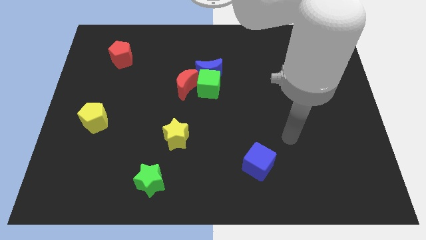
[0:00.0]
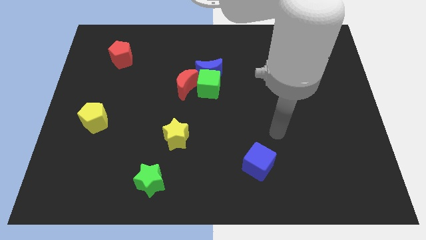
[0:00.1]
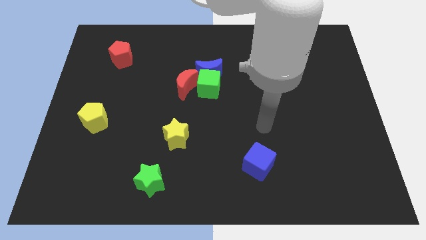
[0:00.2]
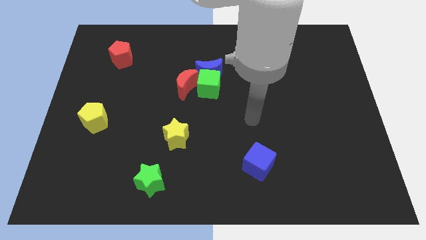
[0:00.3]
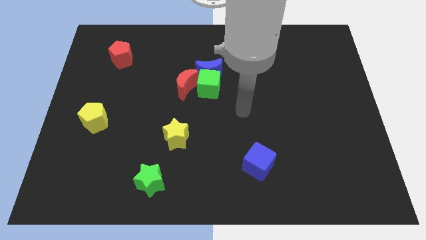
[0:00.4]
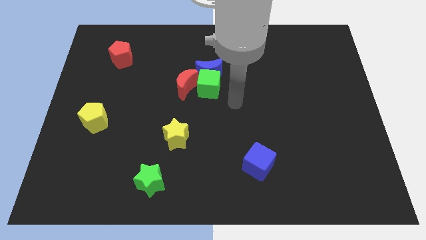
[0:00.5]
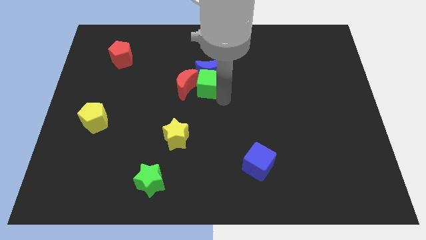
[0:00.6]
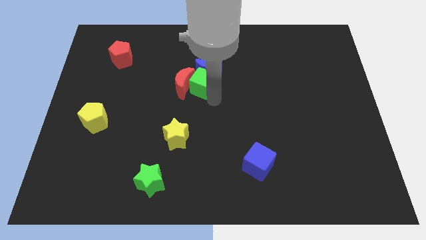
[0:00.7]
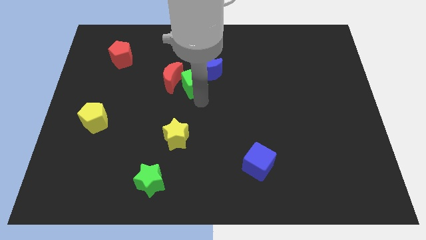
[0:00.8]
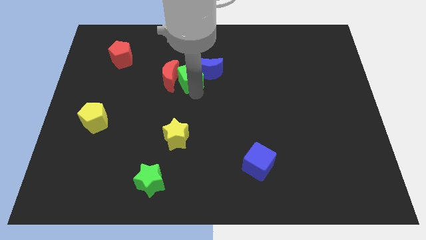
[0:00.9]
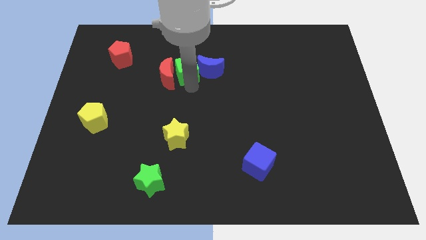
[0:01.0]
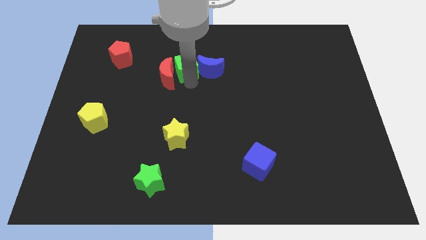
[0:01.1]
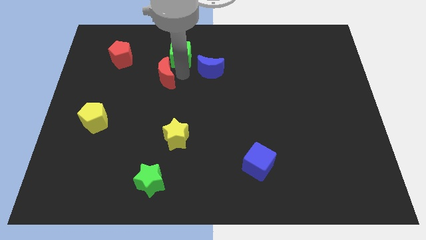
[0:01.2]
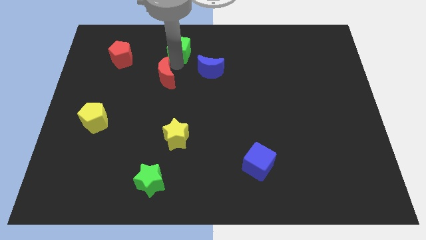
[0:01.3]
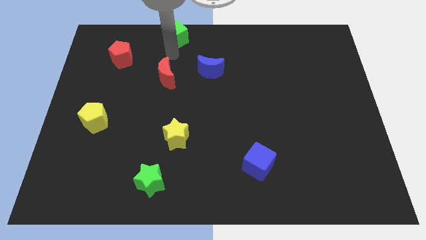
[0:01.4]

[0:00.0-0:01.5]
move the green cube away from the blue moon and red moon

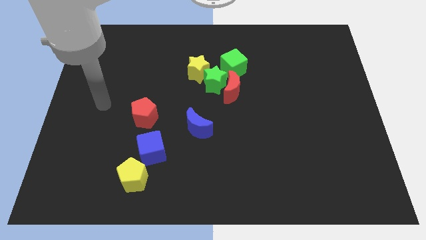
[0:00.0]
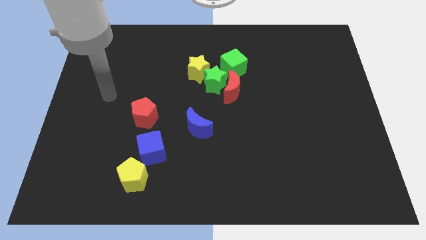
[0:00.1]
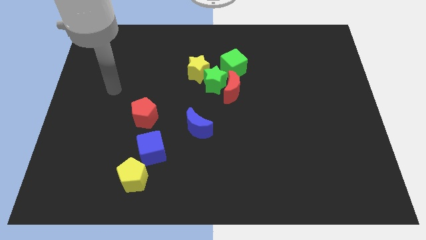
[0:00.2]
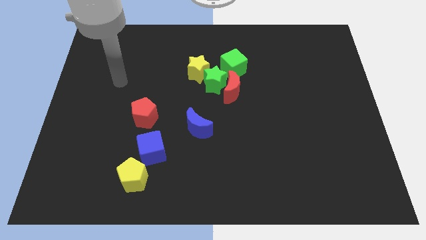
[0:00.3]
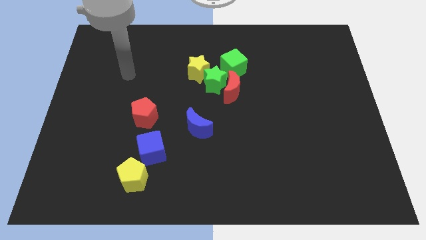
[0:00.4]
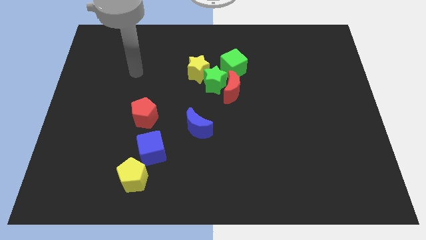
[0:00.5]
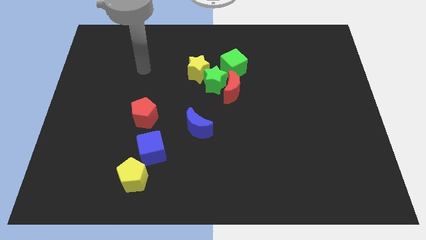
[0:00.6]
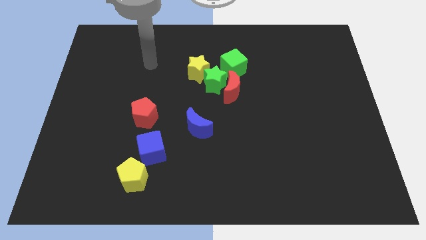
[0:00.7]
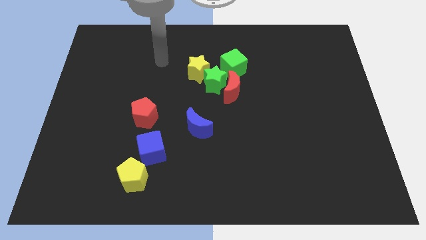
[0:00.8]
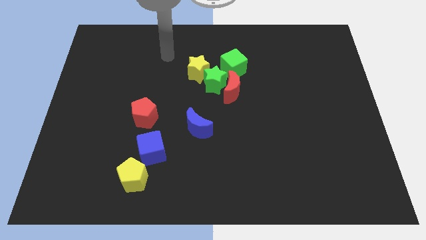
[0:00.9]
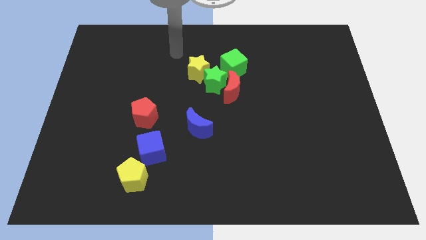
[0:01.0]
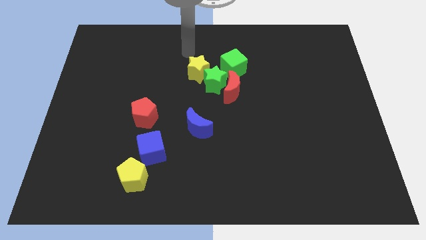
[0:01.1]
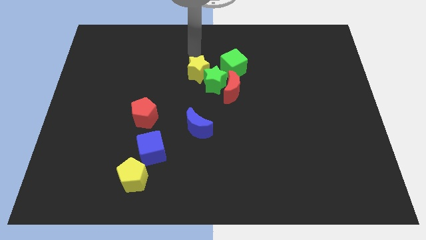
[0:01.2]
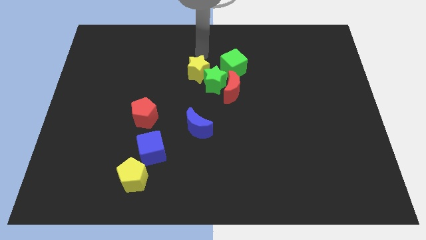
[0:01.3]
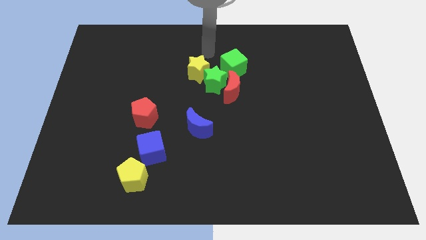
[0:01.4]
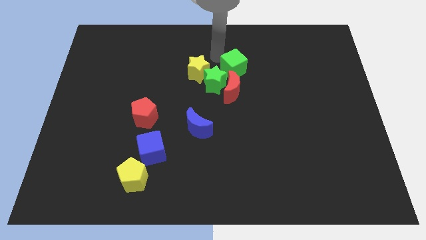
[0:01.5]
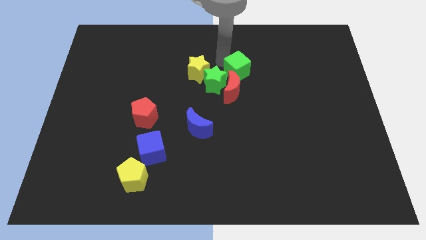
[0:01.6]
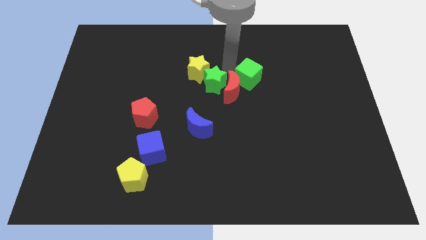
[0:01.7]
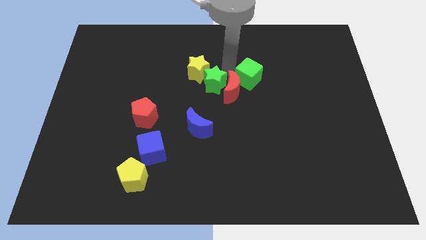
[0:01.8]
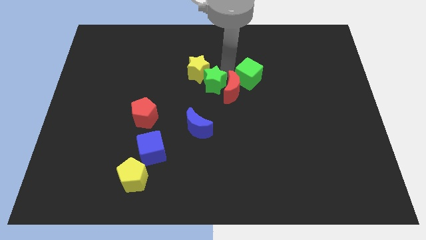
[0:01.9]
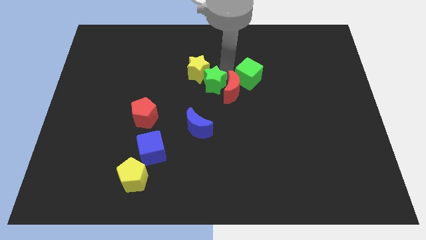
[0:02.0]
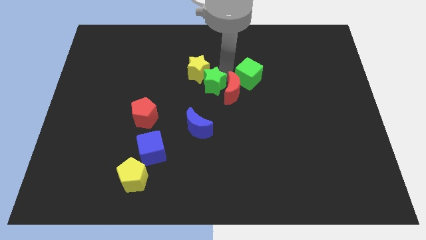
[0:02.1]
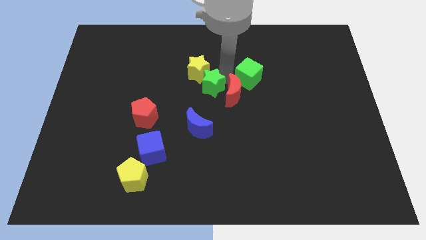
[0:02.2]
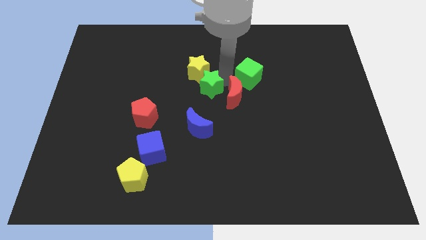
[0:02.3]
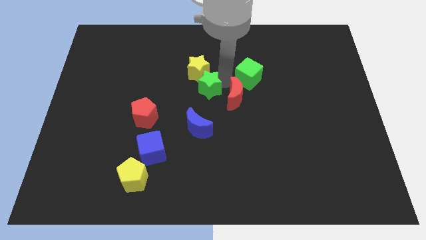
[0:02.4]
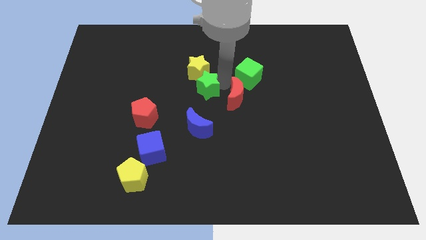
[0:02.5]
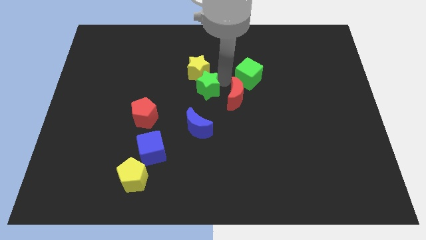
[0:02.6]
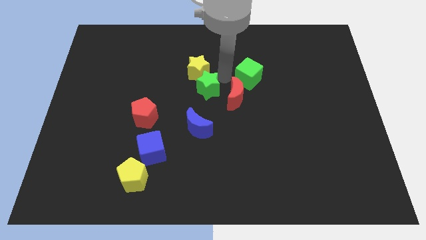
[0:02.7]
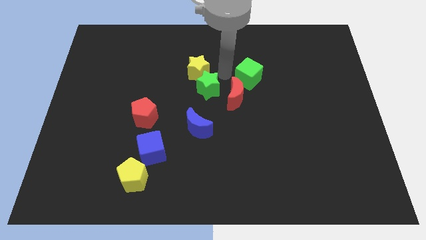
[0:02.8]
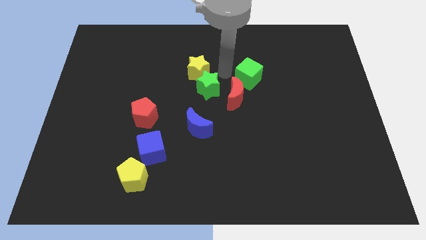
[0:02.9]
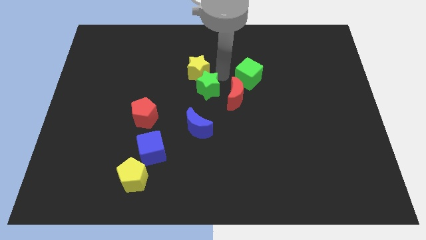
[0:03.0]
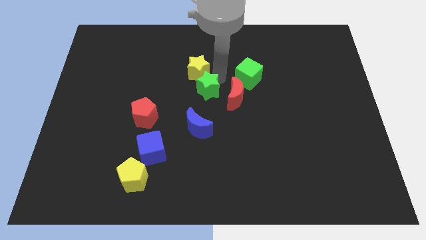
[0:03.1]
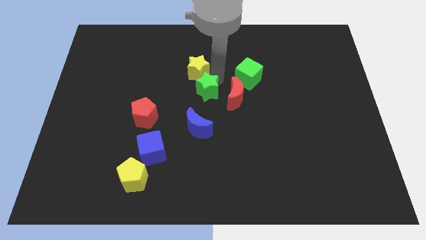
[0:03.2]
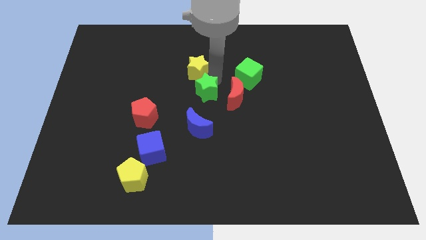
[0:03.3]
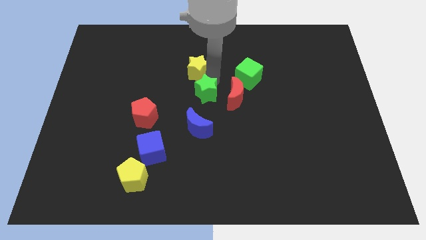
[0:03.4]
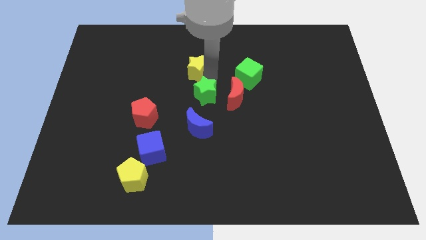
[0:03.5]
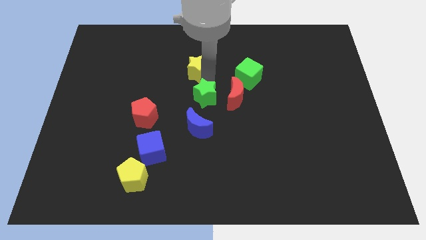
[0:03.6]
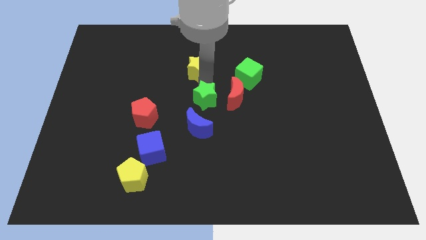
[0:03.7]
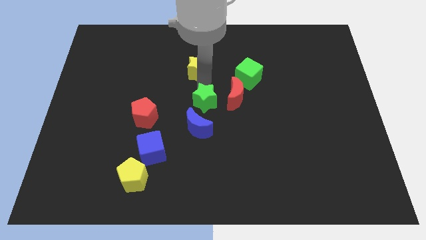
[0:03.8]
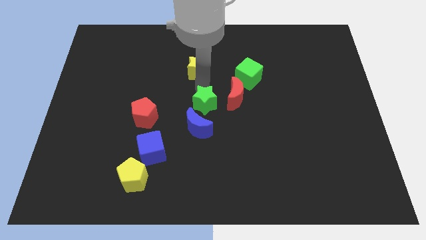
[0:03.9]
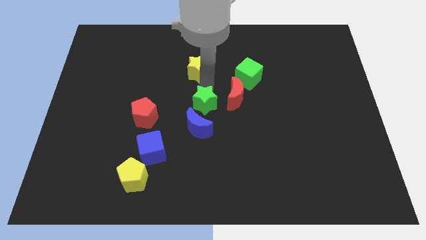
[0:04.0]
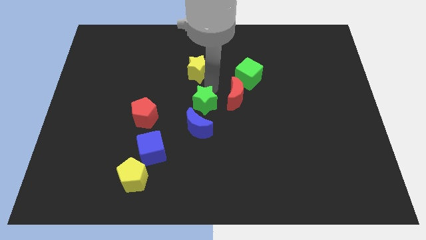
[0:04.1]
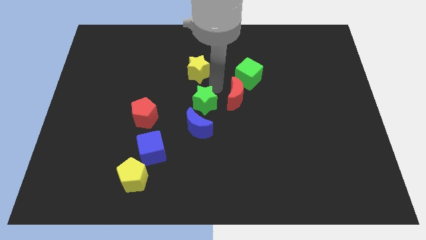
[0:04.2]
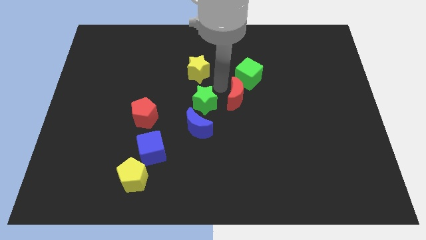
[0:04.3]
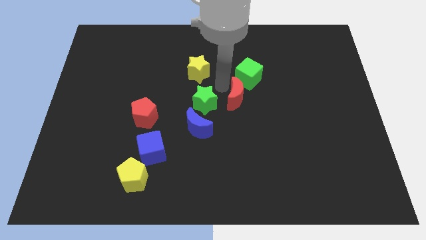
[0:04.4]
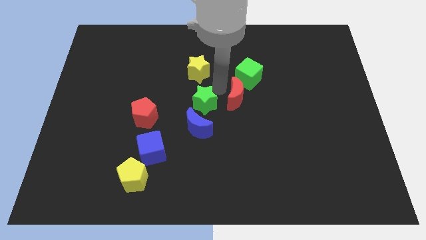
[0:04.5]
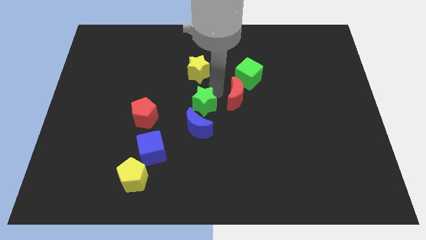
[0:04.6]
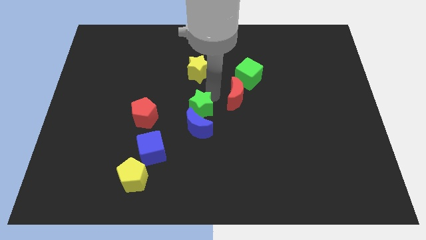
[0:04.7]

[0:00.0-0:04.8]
pull the green star apart from the group of blocks

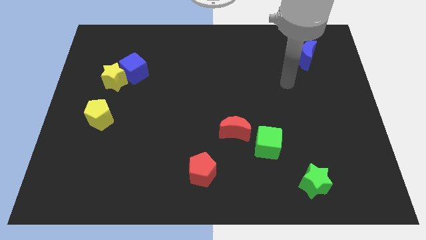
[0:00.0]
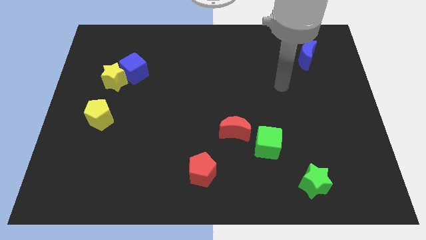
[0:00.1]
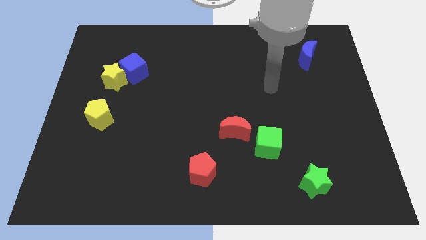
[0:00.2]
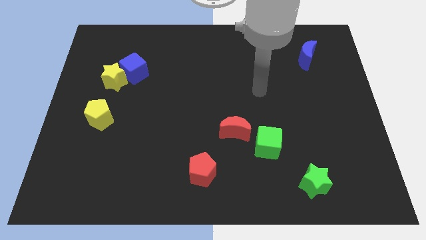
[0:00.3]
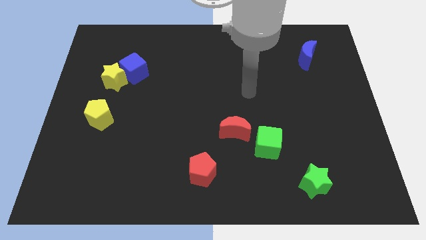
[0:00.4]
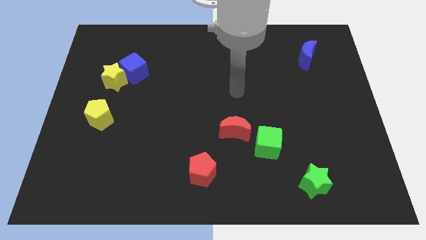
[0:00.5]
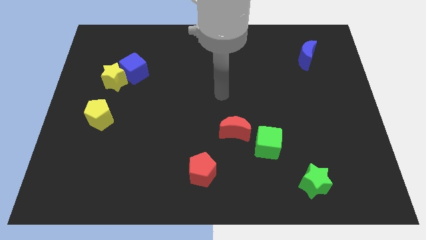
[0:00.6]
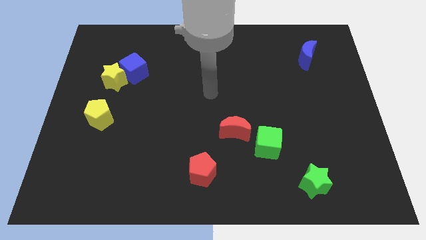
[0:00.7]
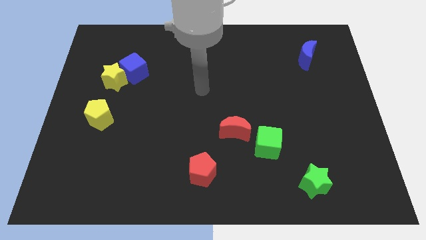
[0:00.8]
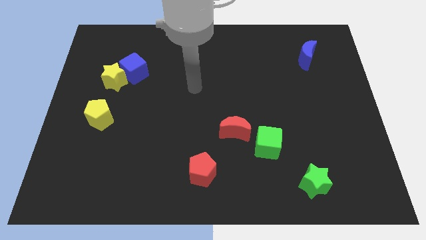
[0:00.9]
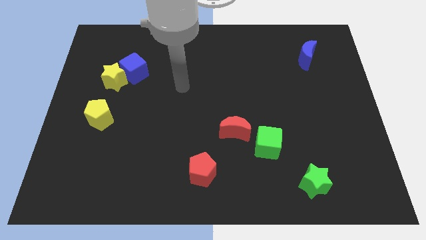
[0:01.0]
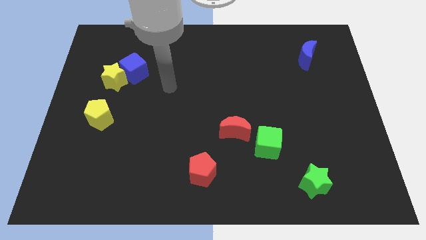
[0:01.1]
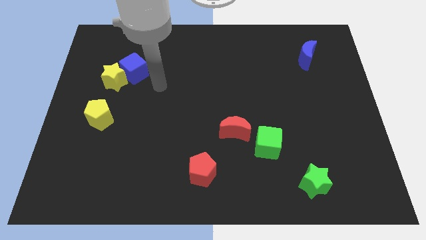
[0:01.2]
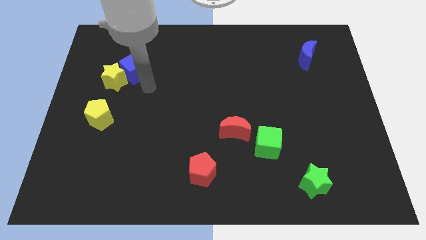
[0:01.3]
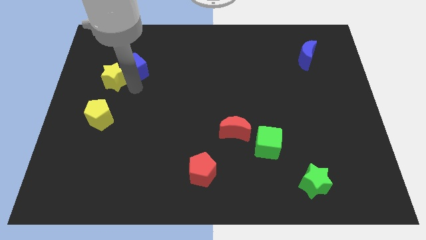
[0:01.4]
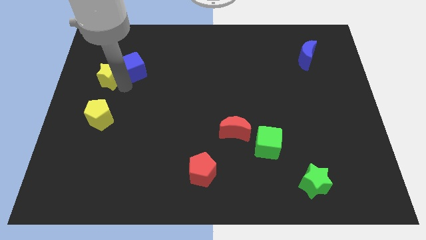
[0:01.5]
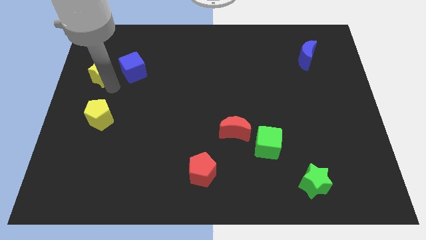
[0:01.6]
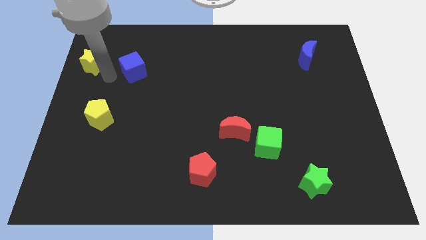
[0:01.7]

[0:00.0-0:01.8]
move the blue cube away from the yellow star

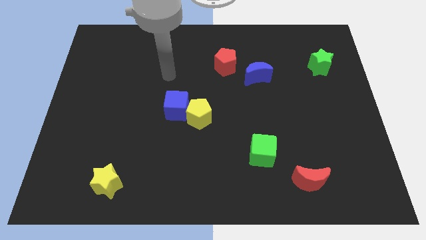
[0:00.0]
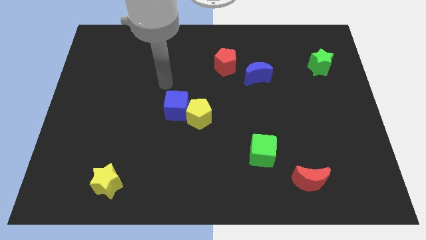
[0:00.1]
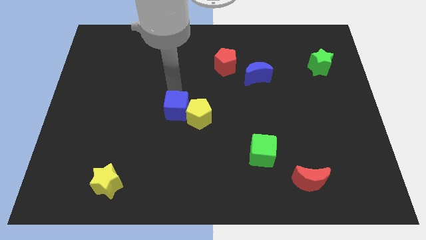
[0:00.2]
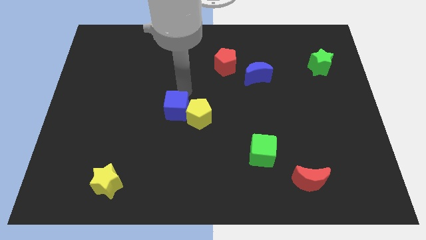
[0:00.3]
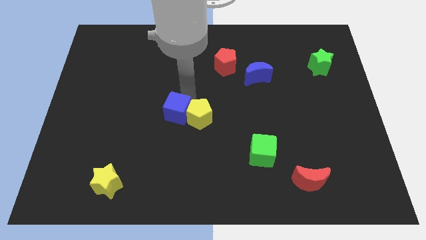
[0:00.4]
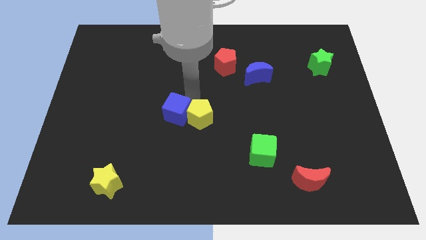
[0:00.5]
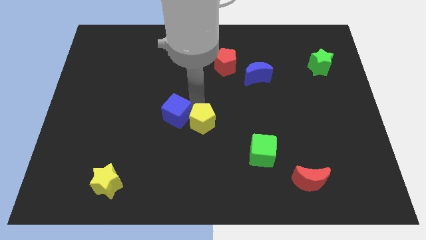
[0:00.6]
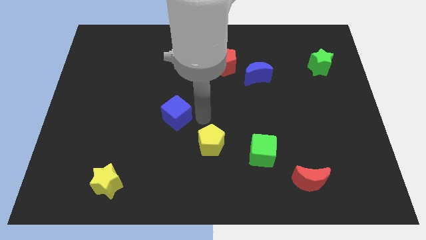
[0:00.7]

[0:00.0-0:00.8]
separate the blue cube from the yellow pentagon

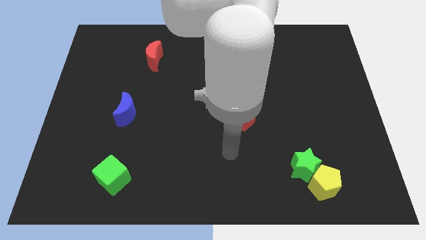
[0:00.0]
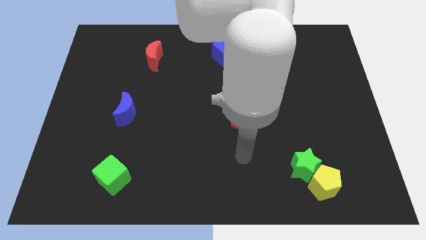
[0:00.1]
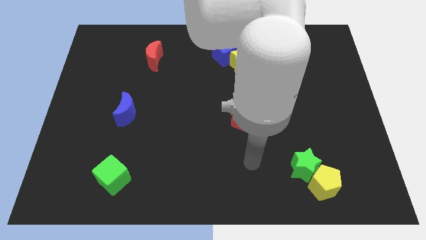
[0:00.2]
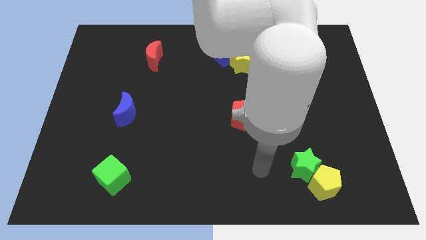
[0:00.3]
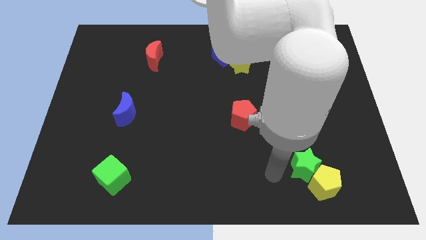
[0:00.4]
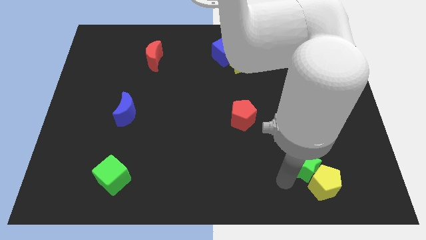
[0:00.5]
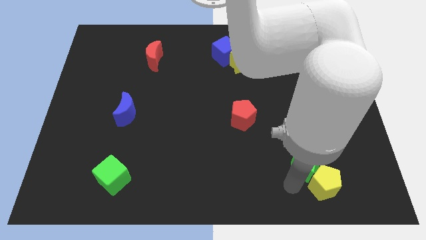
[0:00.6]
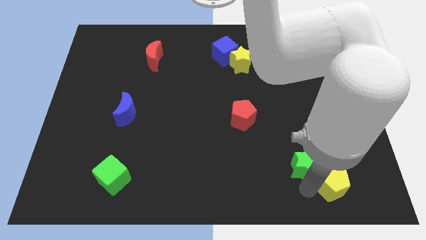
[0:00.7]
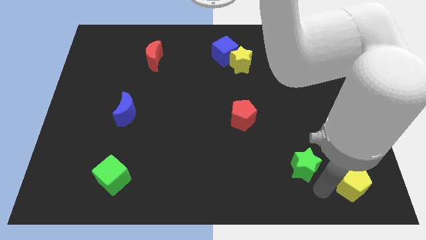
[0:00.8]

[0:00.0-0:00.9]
move the green star away from the yellow pentagon
